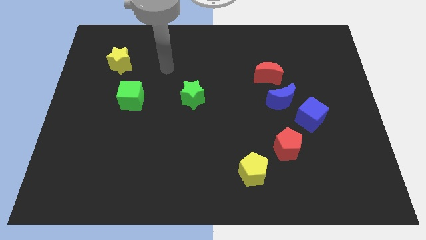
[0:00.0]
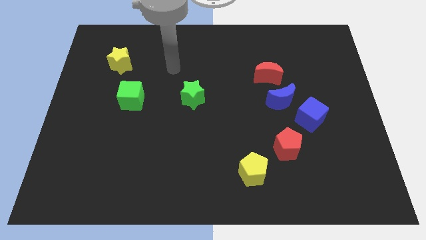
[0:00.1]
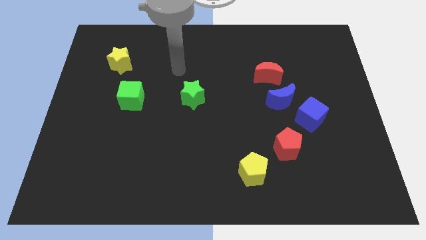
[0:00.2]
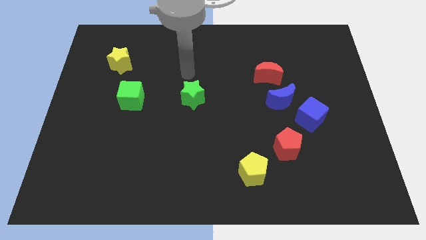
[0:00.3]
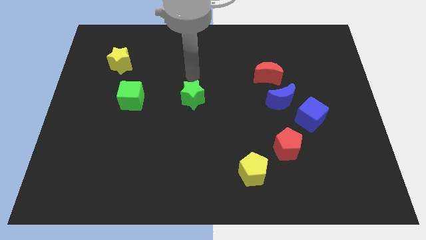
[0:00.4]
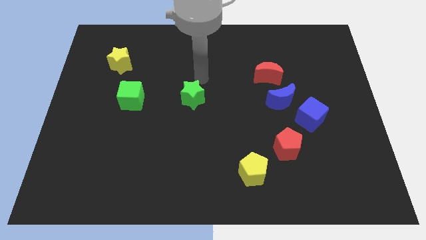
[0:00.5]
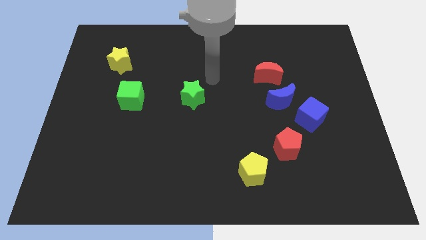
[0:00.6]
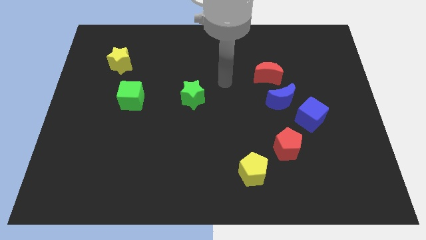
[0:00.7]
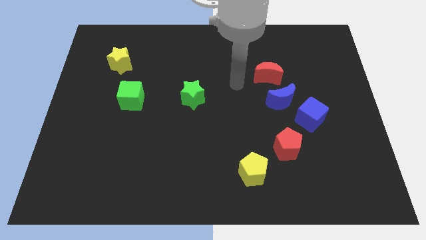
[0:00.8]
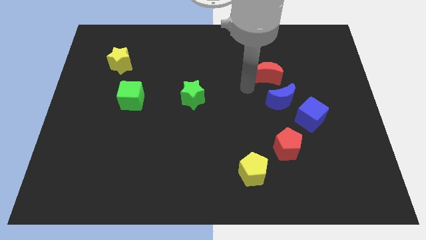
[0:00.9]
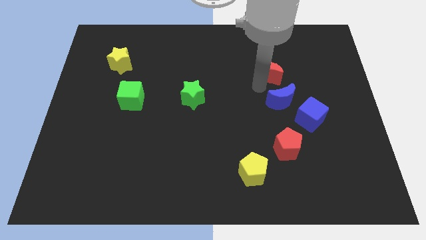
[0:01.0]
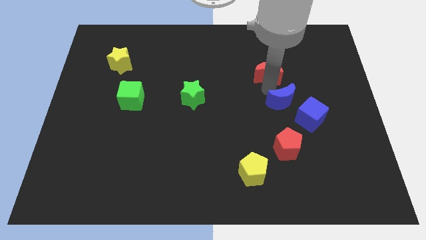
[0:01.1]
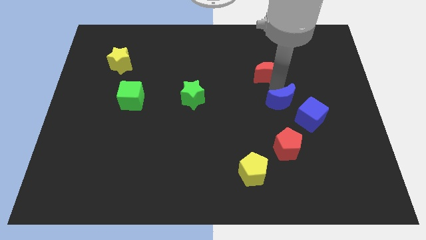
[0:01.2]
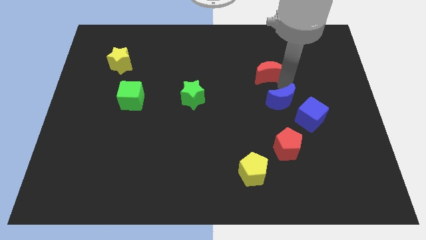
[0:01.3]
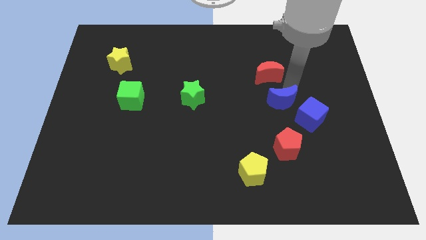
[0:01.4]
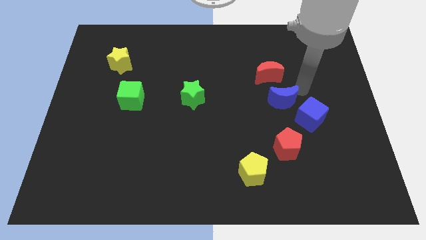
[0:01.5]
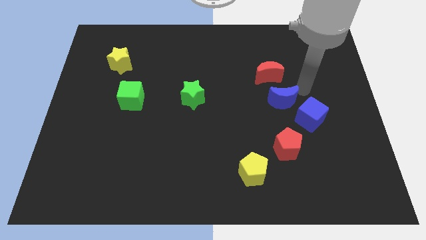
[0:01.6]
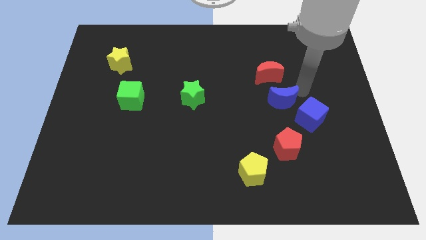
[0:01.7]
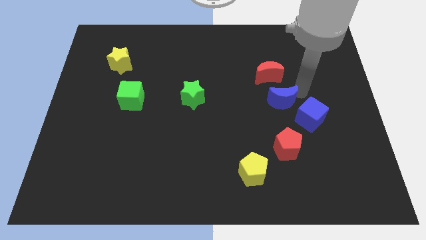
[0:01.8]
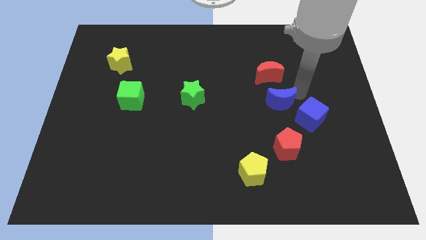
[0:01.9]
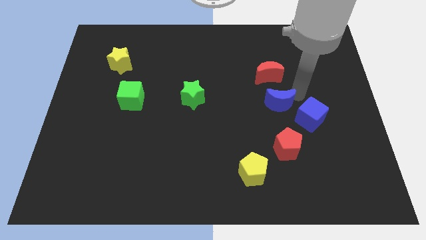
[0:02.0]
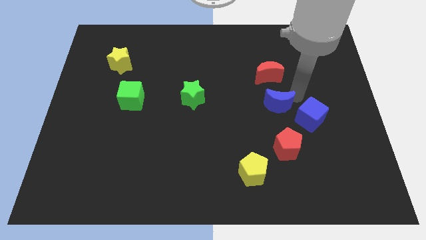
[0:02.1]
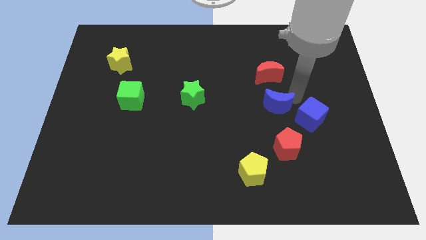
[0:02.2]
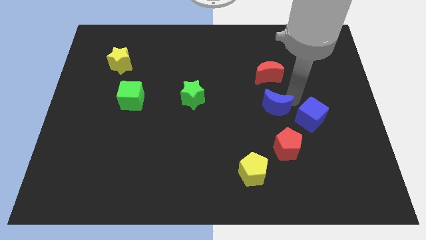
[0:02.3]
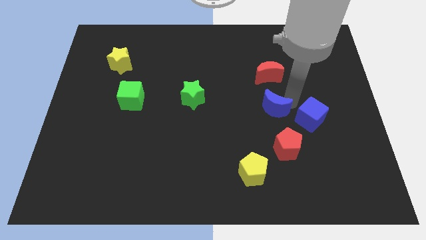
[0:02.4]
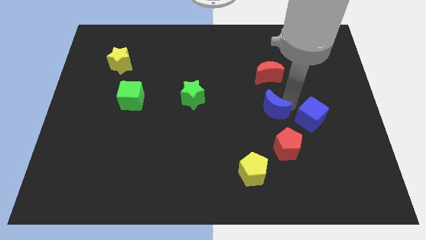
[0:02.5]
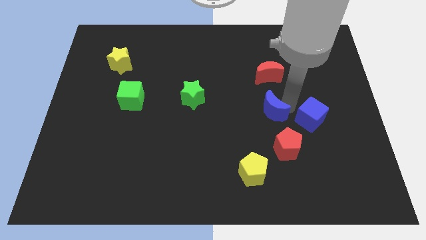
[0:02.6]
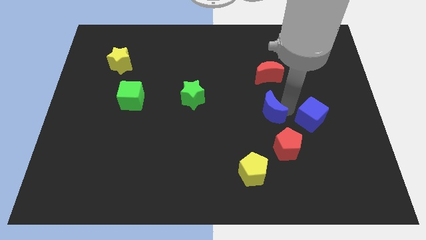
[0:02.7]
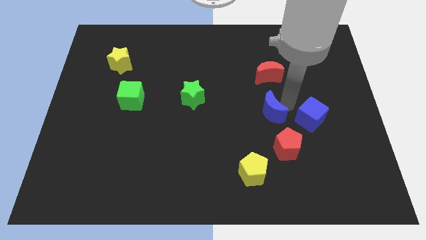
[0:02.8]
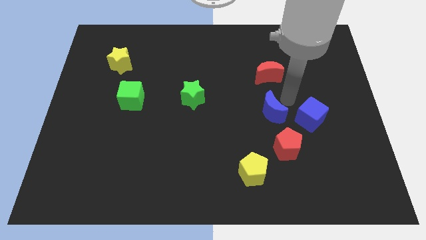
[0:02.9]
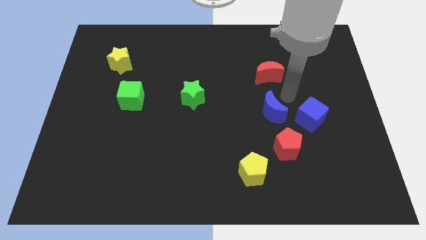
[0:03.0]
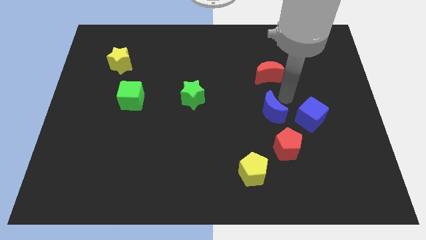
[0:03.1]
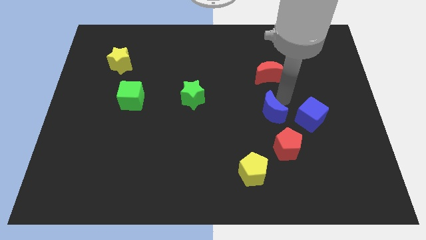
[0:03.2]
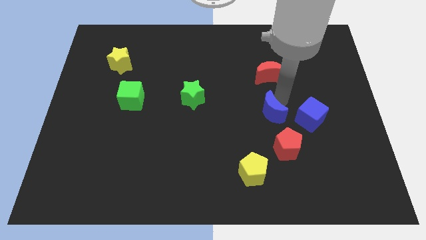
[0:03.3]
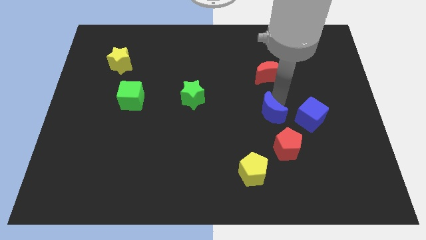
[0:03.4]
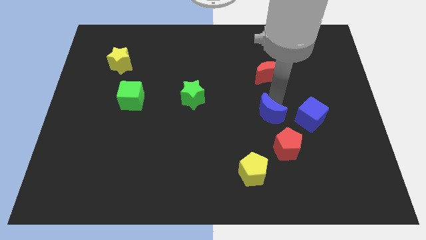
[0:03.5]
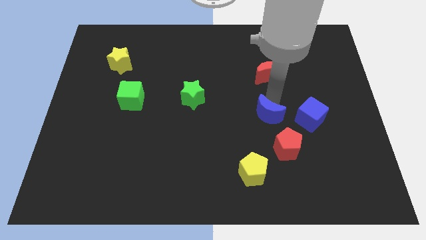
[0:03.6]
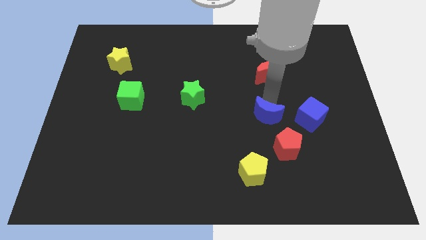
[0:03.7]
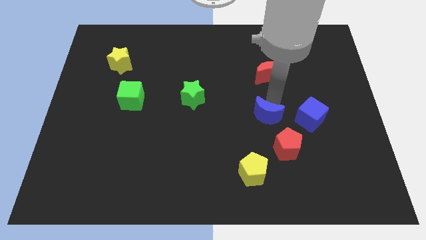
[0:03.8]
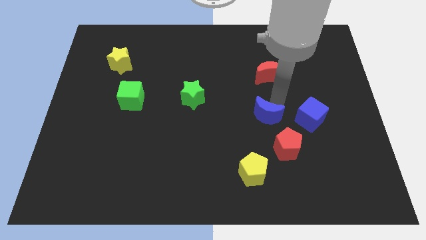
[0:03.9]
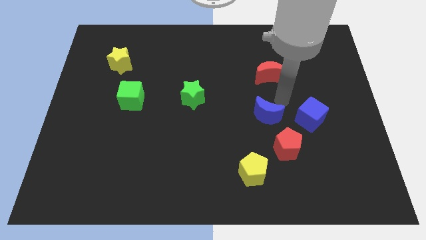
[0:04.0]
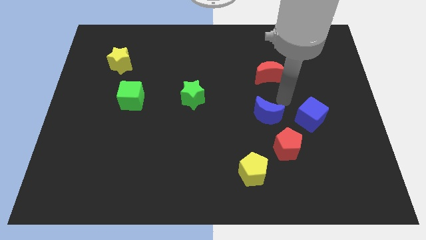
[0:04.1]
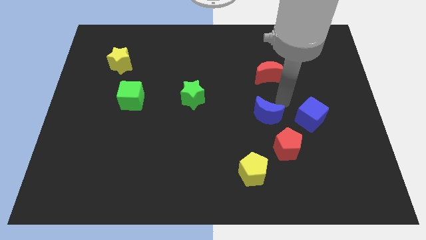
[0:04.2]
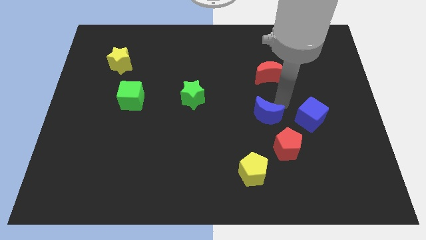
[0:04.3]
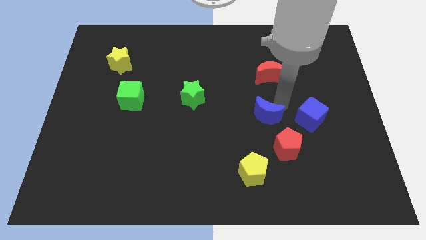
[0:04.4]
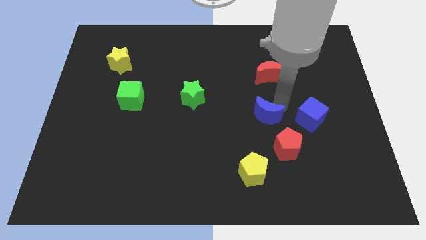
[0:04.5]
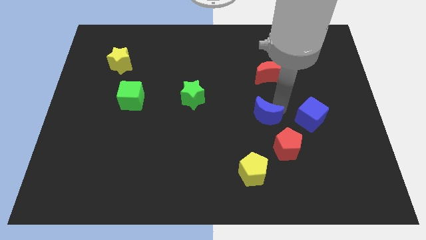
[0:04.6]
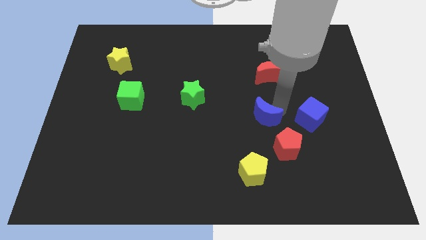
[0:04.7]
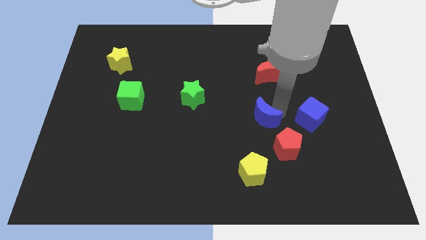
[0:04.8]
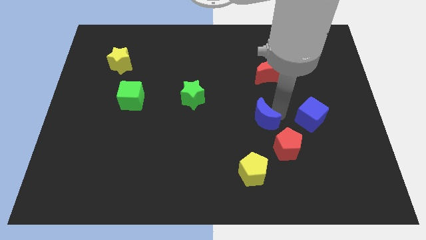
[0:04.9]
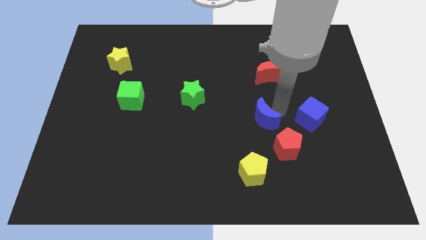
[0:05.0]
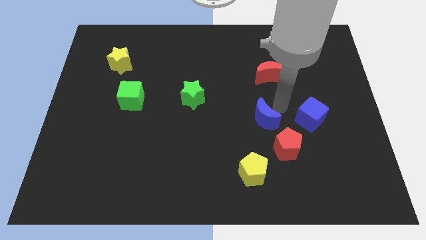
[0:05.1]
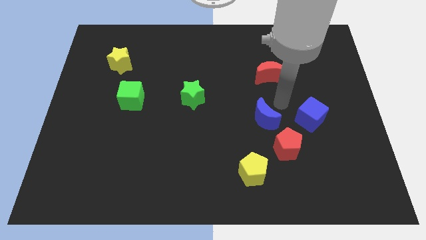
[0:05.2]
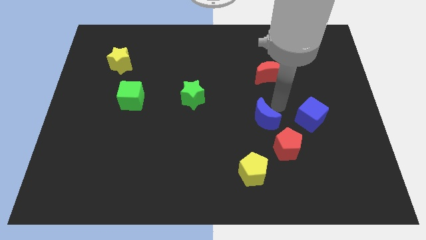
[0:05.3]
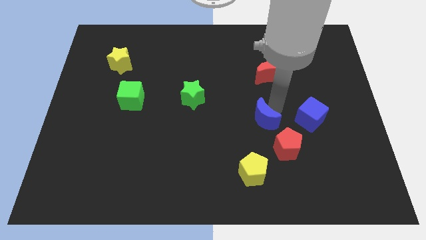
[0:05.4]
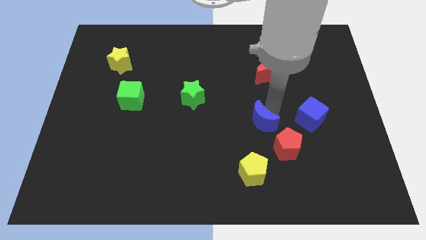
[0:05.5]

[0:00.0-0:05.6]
separate the blue moon from the blue cube and red moon

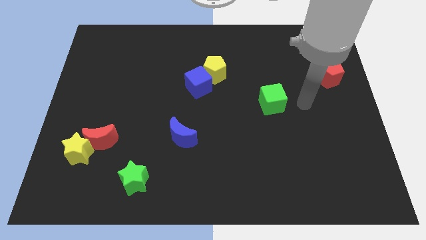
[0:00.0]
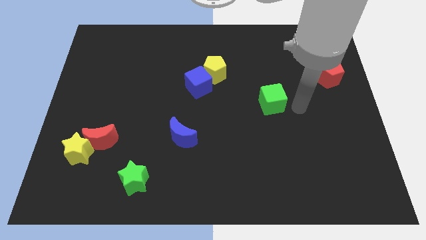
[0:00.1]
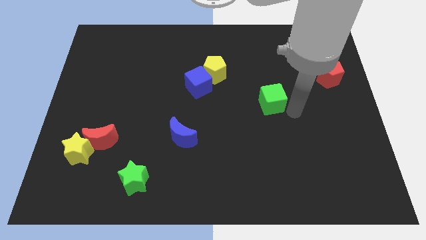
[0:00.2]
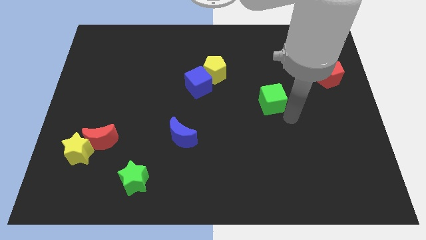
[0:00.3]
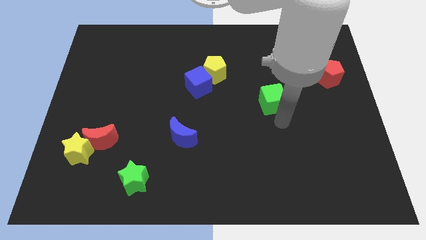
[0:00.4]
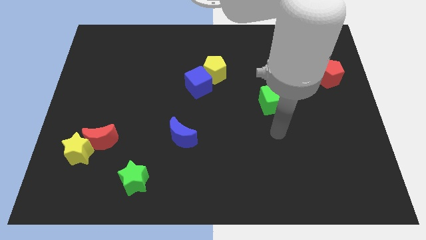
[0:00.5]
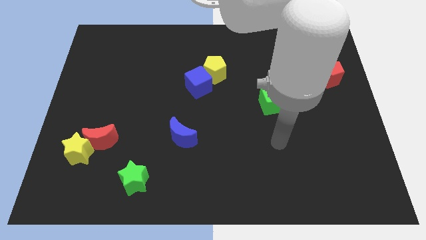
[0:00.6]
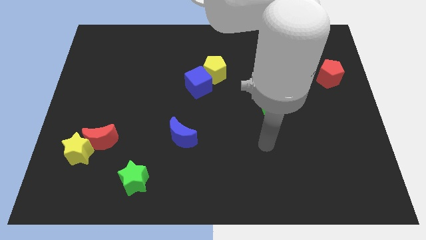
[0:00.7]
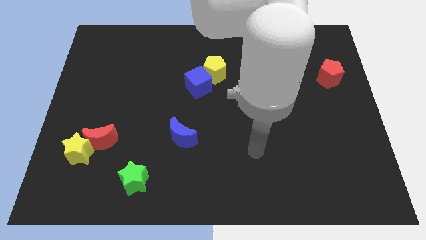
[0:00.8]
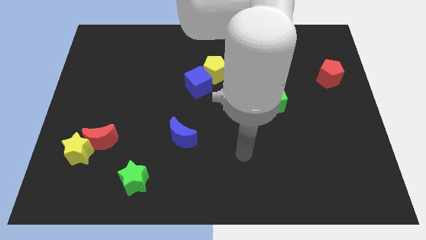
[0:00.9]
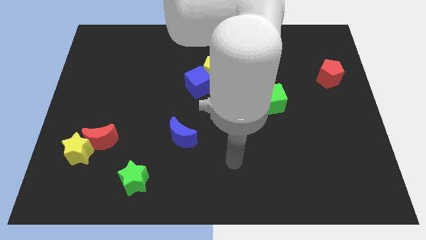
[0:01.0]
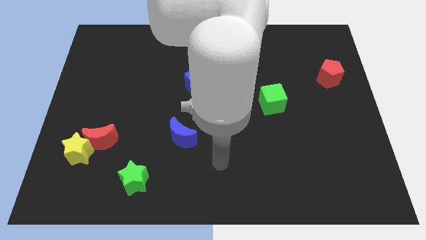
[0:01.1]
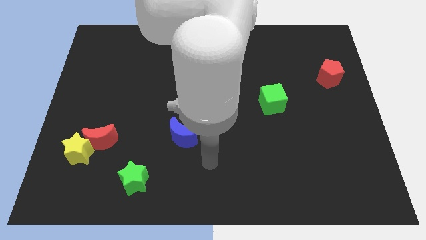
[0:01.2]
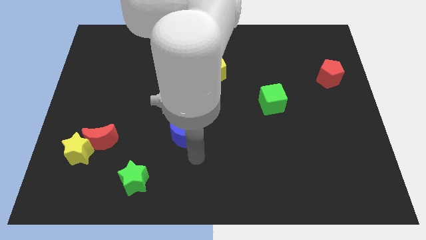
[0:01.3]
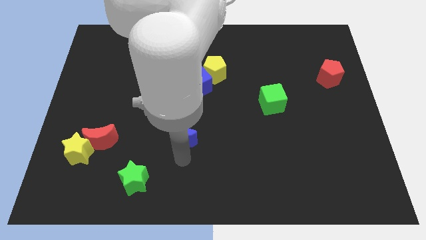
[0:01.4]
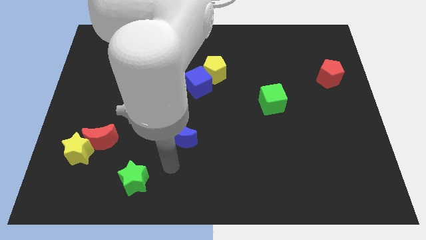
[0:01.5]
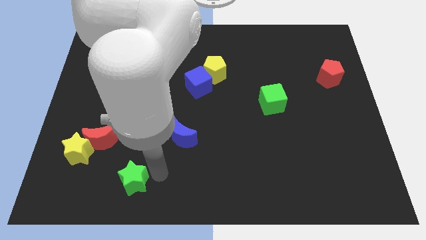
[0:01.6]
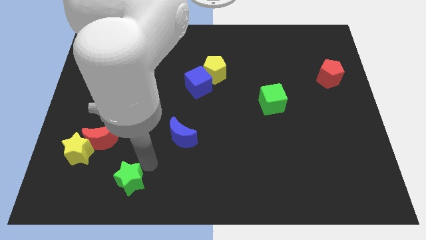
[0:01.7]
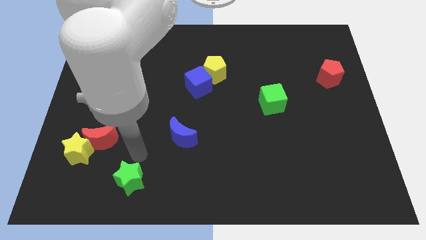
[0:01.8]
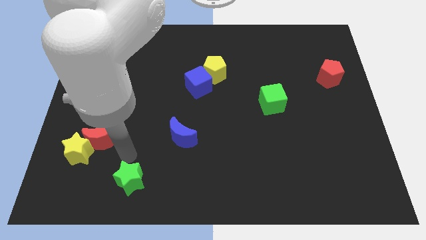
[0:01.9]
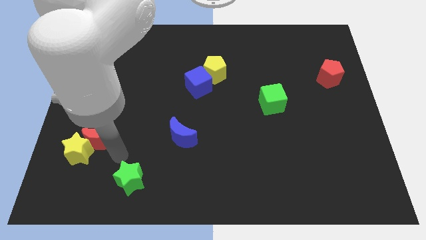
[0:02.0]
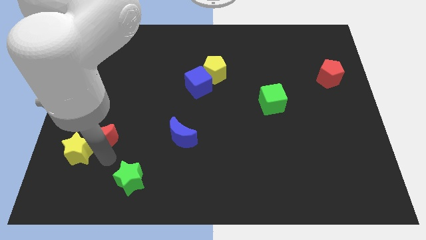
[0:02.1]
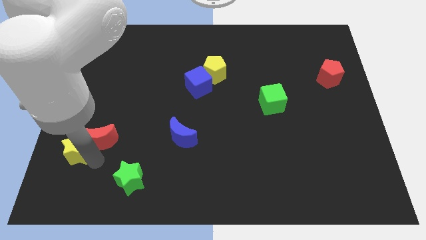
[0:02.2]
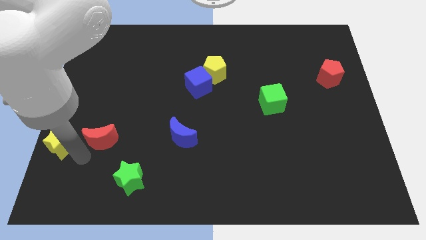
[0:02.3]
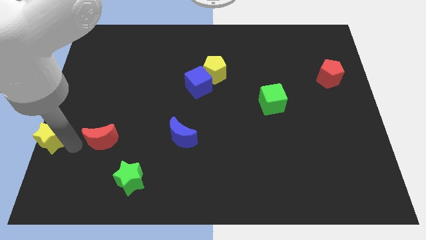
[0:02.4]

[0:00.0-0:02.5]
move the red moon away from the yellow star

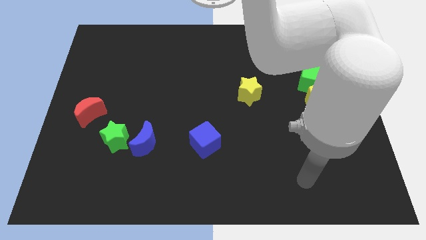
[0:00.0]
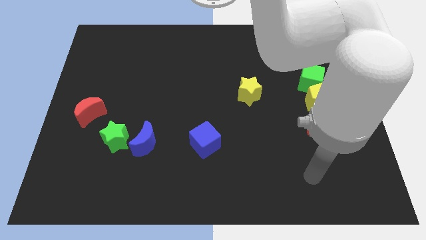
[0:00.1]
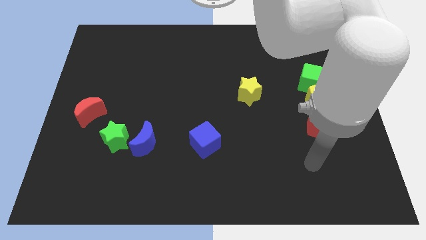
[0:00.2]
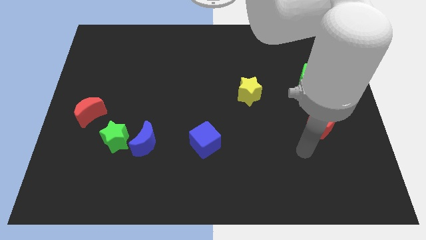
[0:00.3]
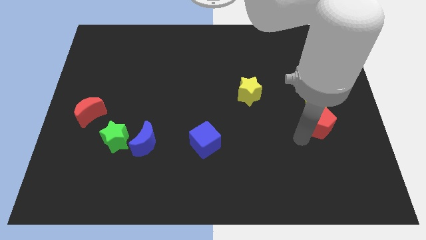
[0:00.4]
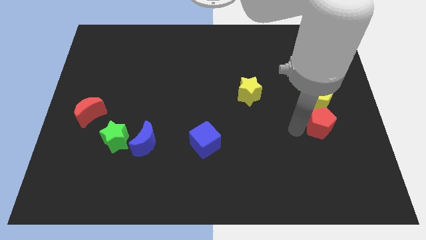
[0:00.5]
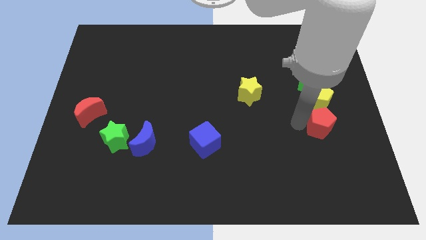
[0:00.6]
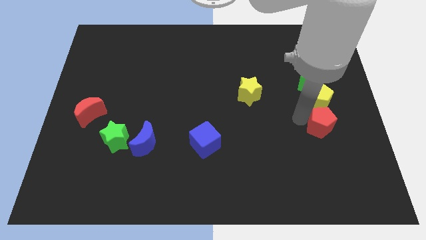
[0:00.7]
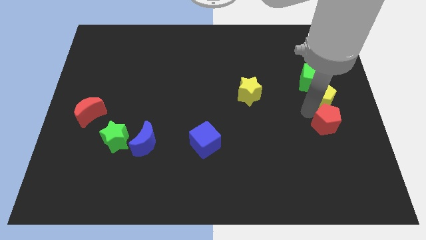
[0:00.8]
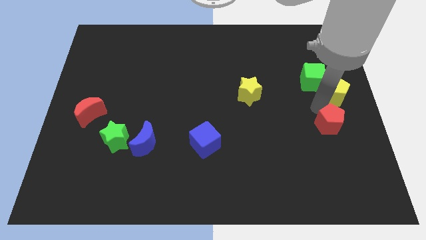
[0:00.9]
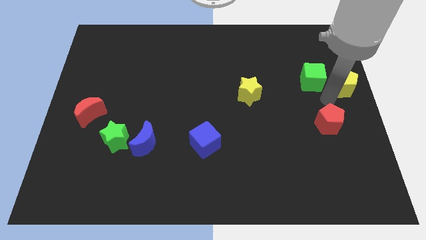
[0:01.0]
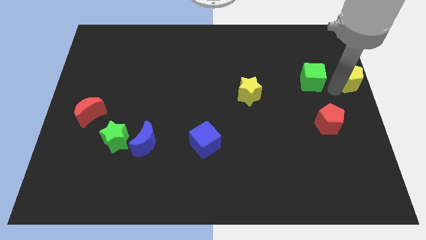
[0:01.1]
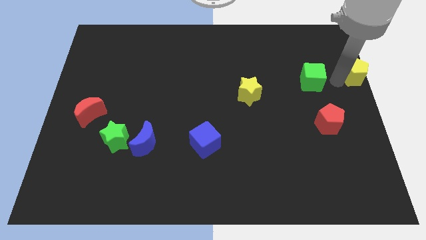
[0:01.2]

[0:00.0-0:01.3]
pull the green cube apart from the yellow pentagon
